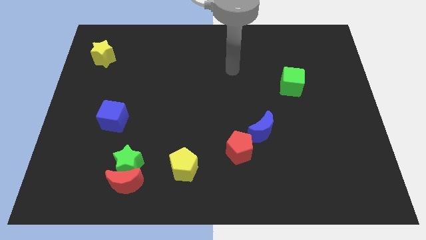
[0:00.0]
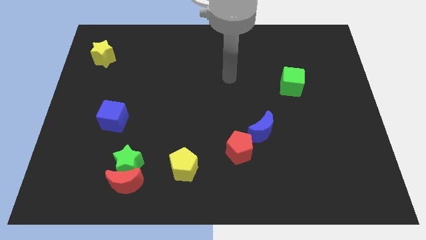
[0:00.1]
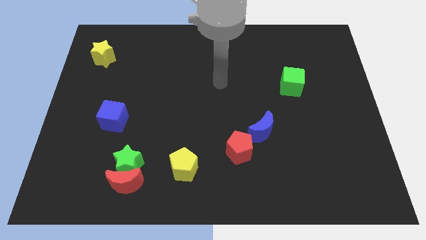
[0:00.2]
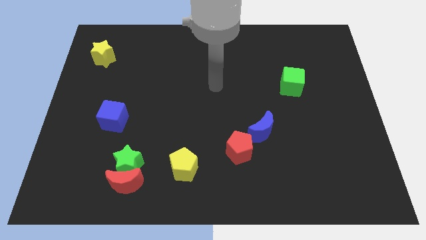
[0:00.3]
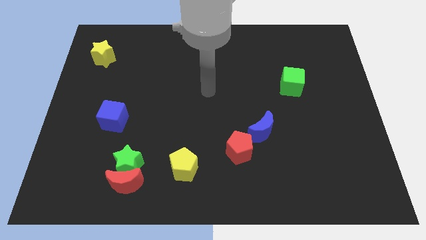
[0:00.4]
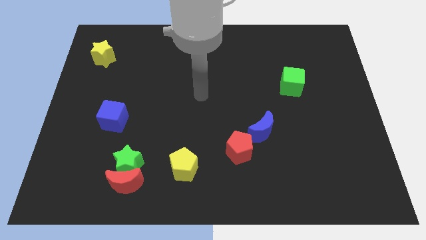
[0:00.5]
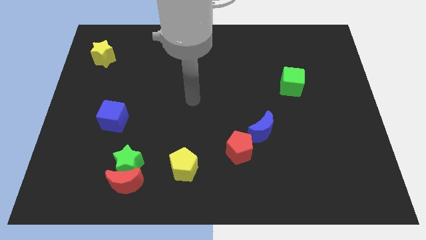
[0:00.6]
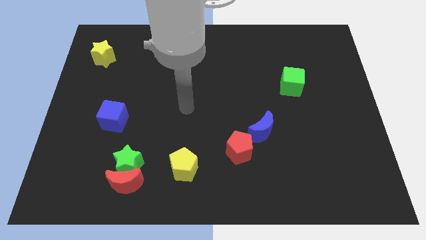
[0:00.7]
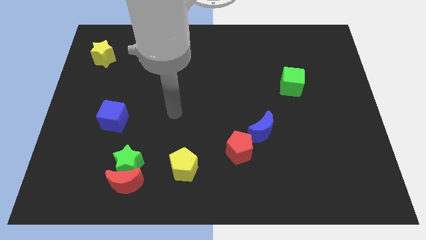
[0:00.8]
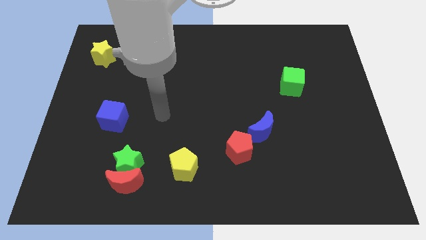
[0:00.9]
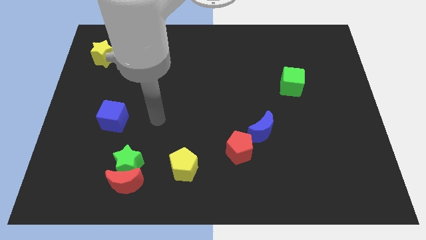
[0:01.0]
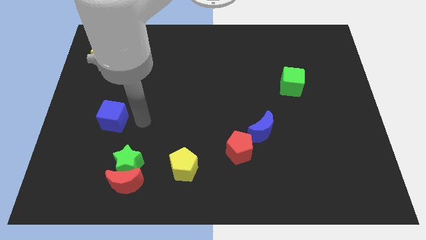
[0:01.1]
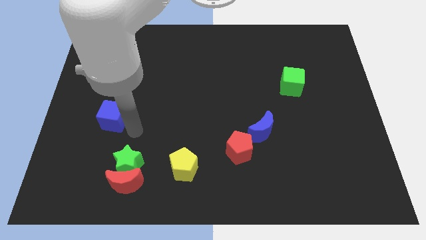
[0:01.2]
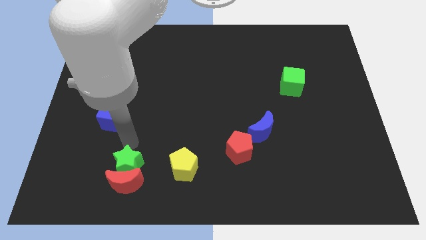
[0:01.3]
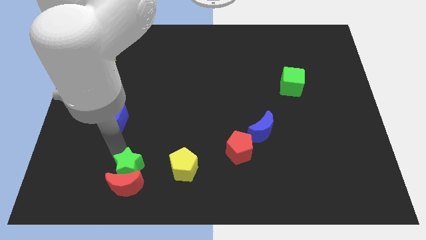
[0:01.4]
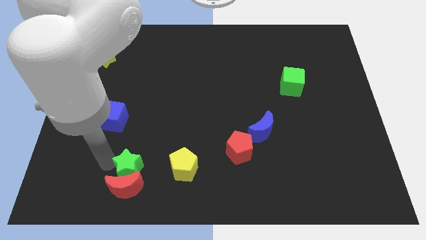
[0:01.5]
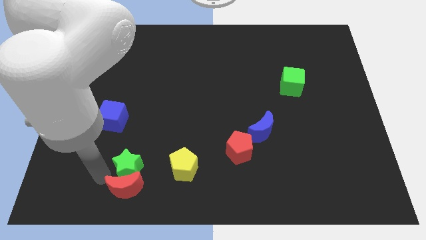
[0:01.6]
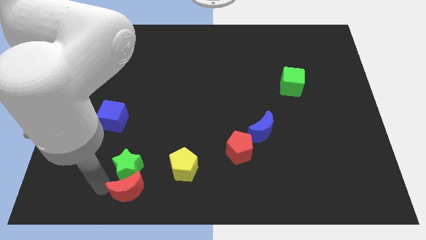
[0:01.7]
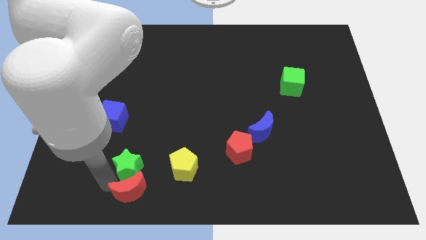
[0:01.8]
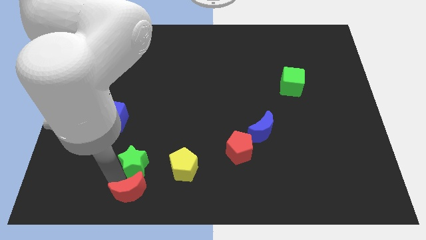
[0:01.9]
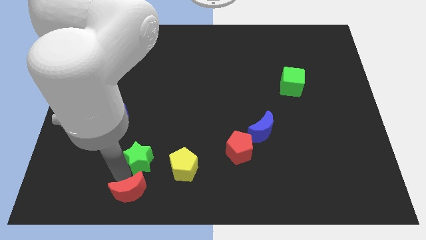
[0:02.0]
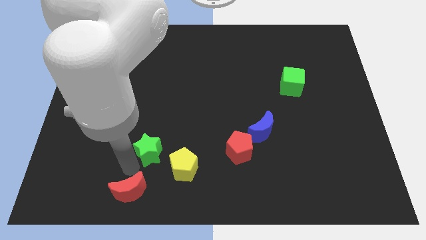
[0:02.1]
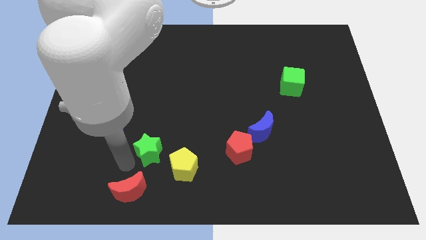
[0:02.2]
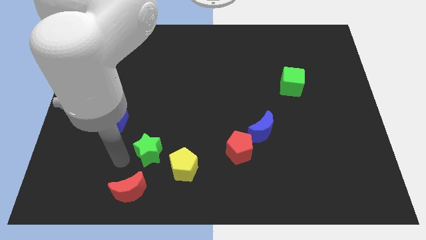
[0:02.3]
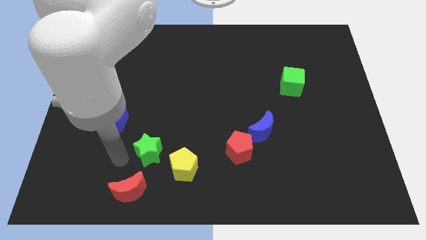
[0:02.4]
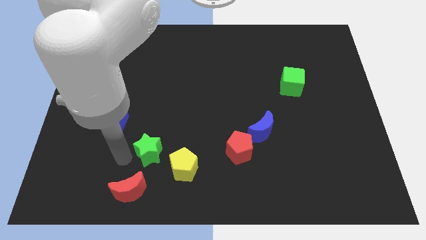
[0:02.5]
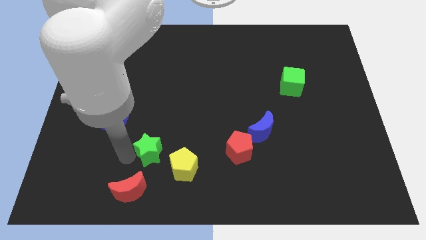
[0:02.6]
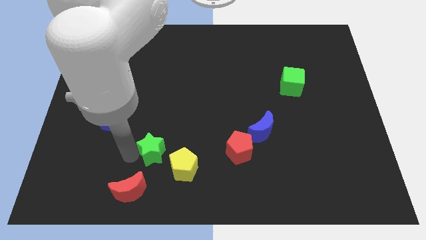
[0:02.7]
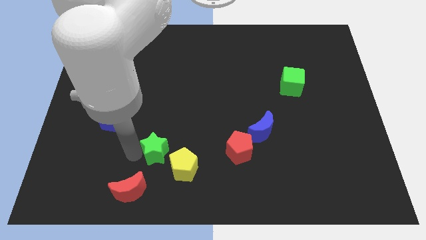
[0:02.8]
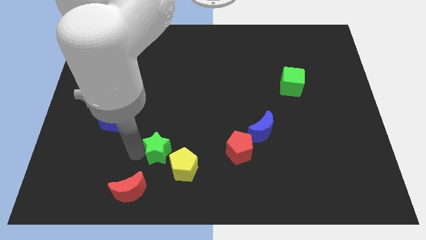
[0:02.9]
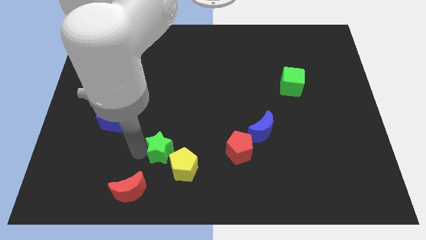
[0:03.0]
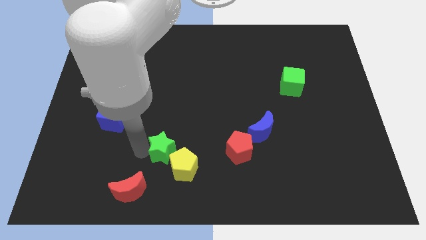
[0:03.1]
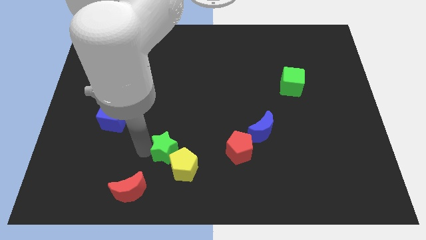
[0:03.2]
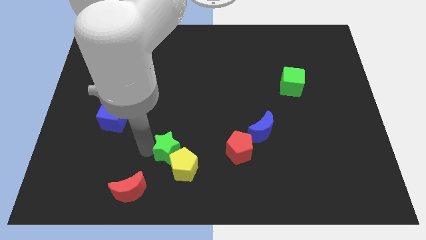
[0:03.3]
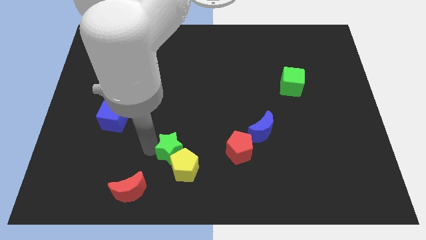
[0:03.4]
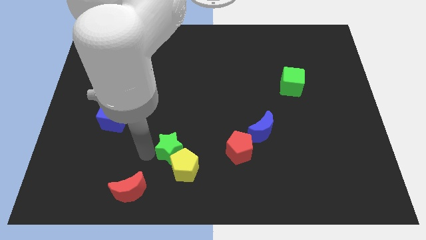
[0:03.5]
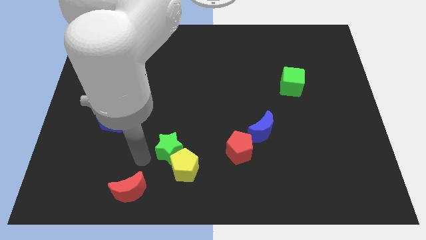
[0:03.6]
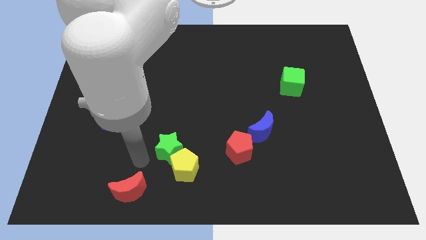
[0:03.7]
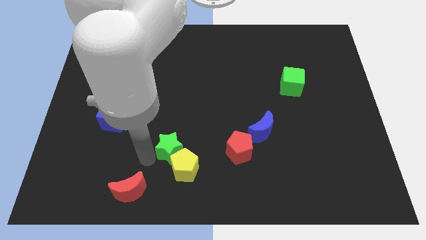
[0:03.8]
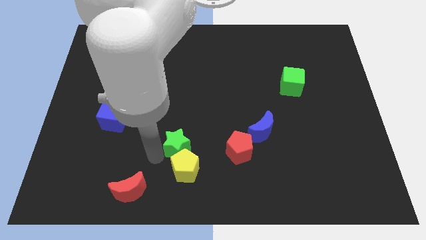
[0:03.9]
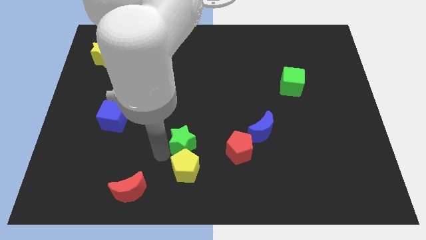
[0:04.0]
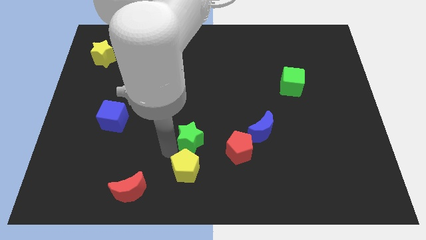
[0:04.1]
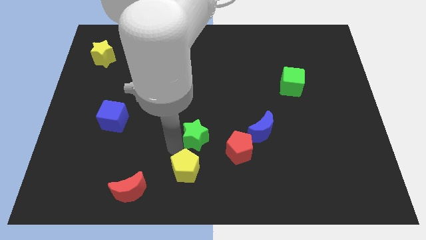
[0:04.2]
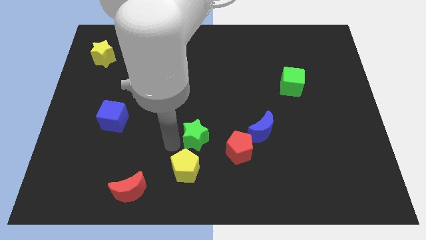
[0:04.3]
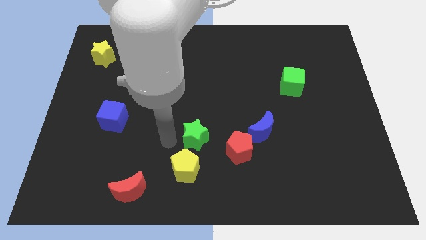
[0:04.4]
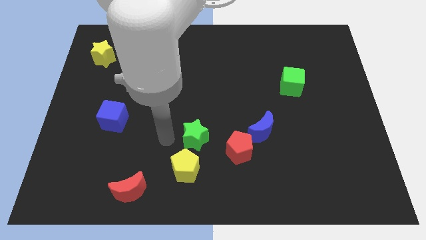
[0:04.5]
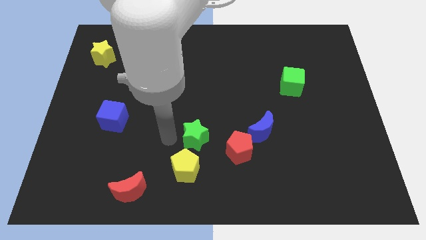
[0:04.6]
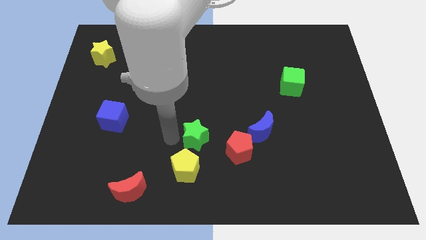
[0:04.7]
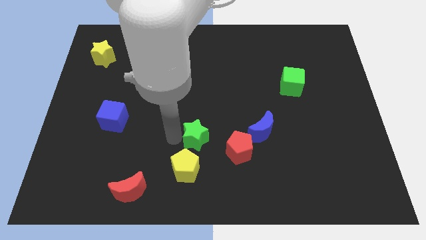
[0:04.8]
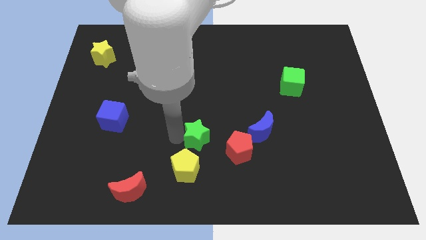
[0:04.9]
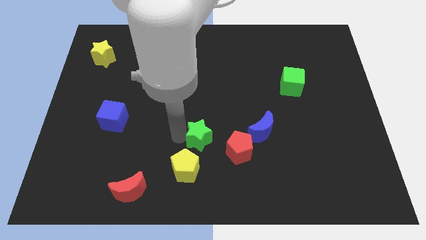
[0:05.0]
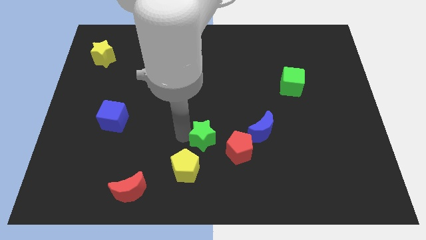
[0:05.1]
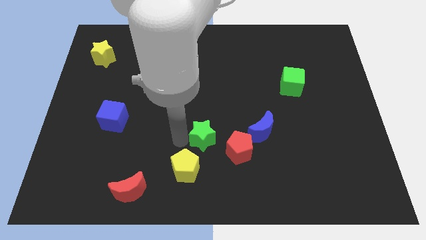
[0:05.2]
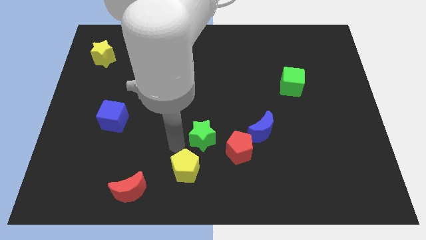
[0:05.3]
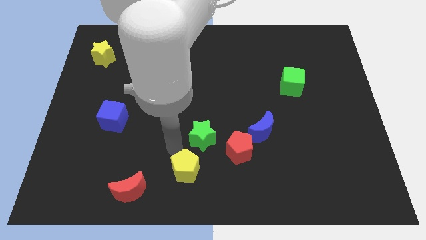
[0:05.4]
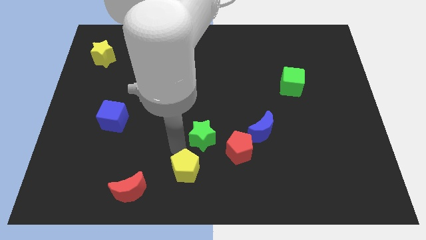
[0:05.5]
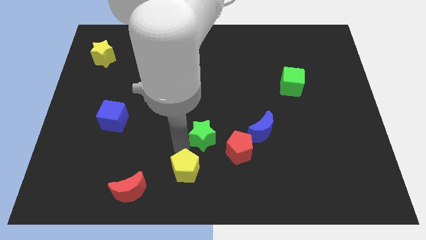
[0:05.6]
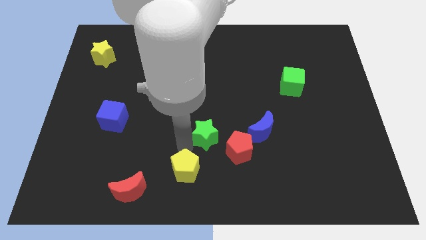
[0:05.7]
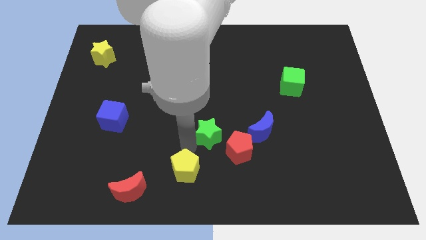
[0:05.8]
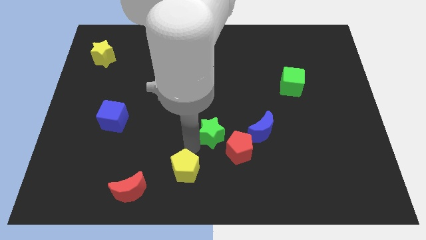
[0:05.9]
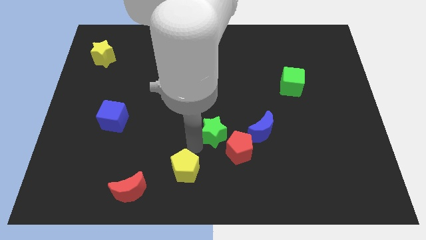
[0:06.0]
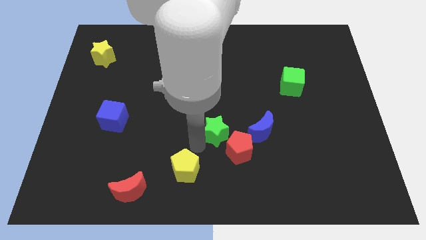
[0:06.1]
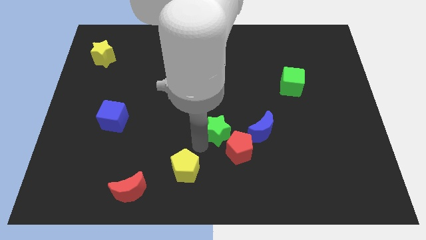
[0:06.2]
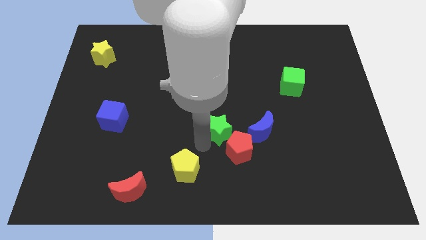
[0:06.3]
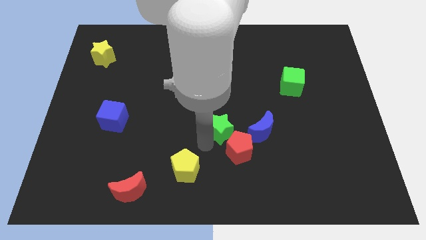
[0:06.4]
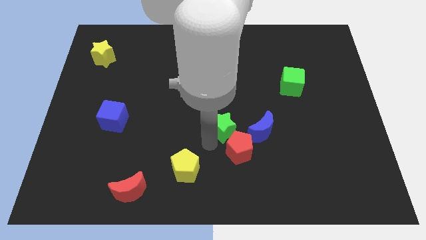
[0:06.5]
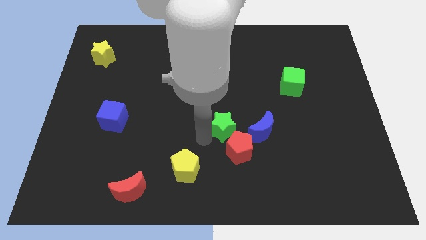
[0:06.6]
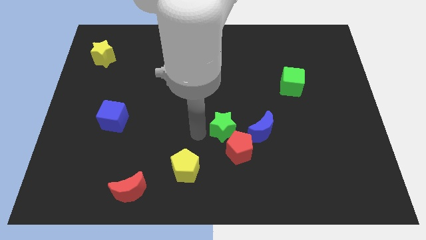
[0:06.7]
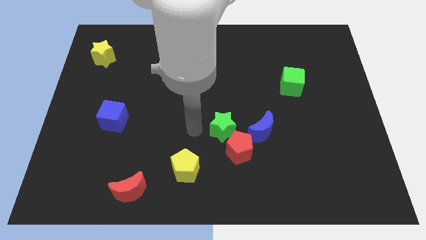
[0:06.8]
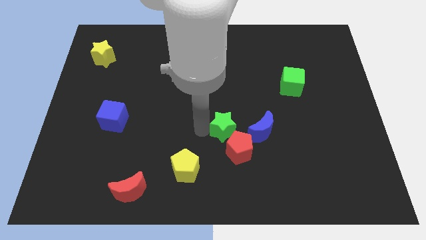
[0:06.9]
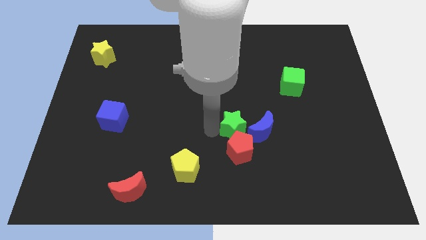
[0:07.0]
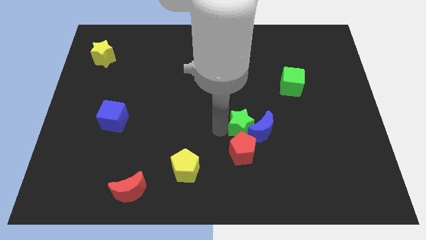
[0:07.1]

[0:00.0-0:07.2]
push the green star next to the blue moon

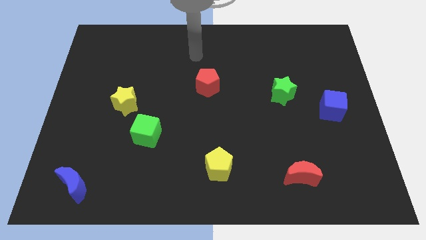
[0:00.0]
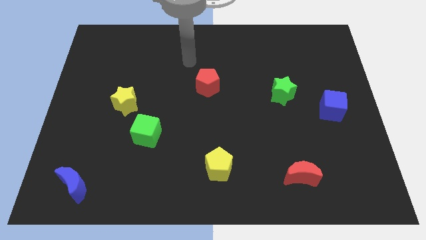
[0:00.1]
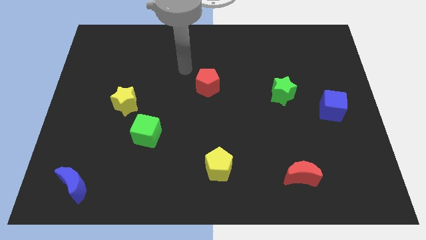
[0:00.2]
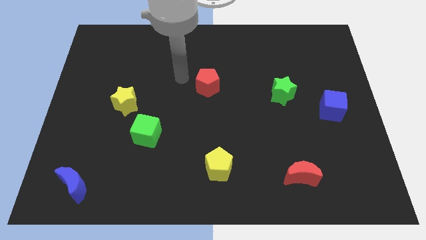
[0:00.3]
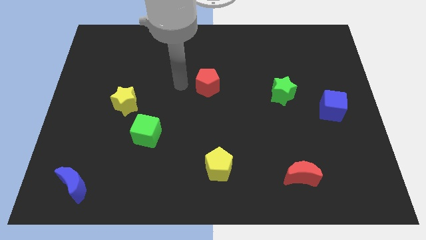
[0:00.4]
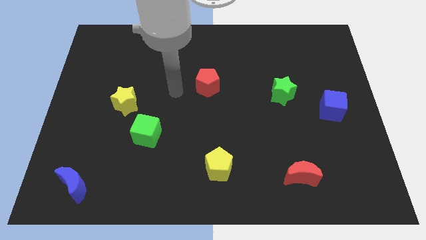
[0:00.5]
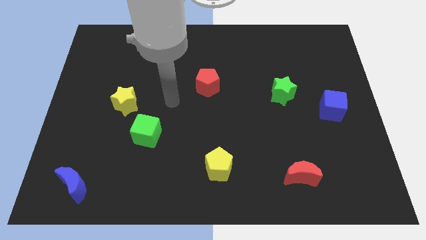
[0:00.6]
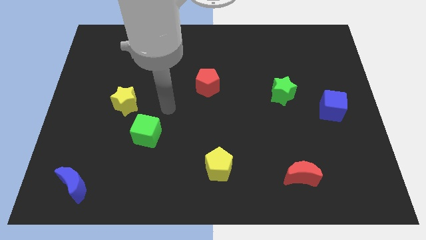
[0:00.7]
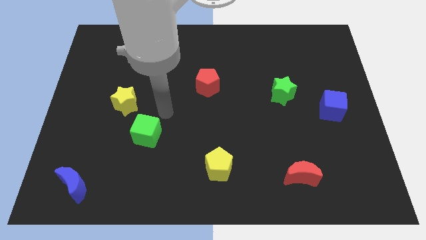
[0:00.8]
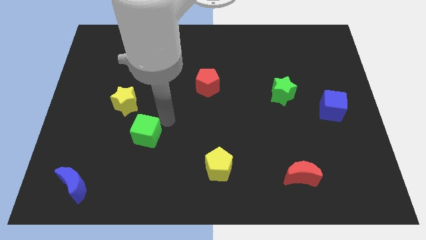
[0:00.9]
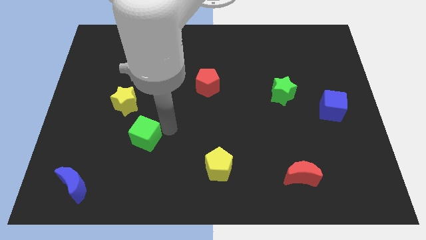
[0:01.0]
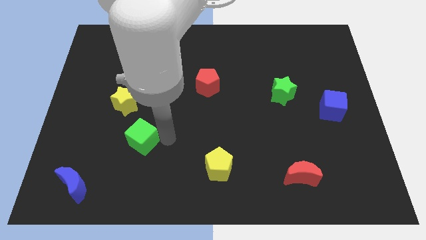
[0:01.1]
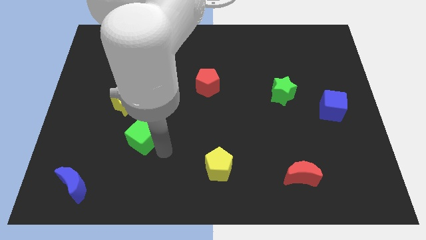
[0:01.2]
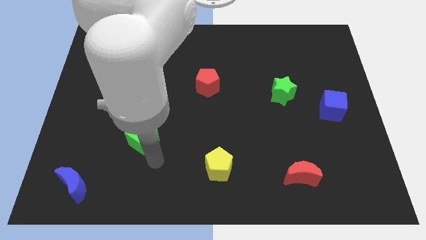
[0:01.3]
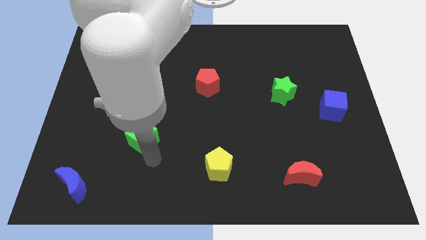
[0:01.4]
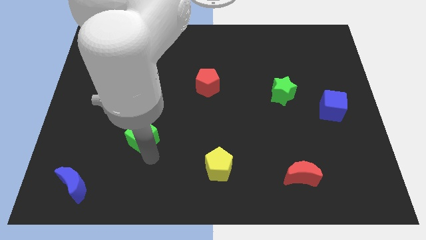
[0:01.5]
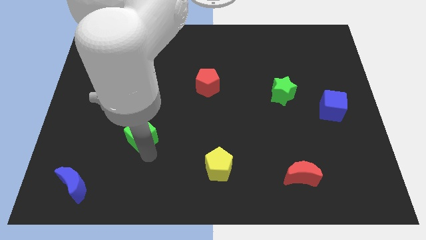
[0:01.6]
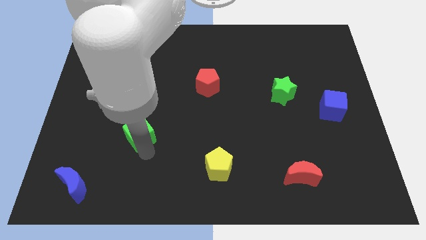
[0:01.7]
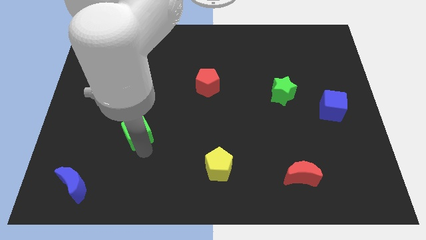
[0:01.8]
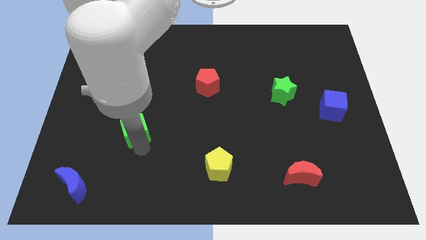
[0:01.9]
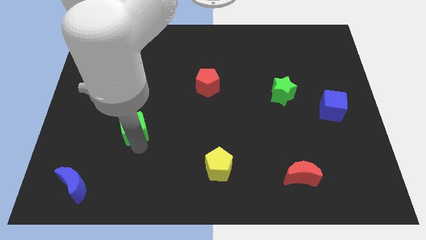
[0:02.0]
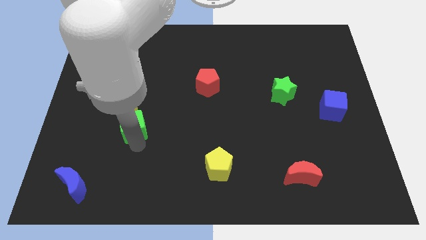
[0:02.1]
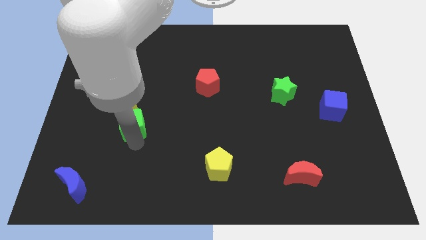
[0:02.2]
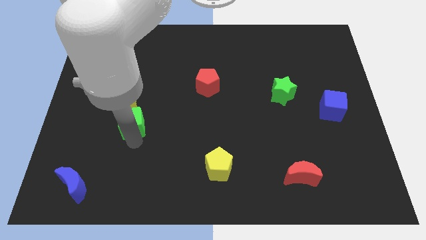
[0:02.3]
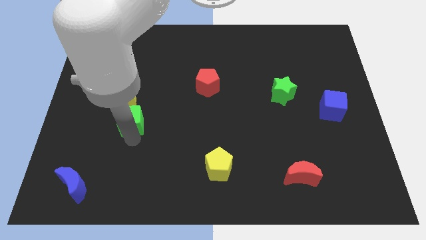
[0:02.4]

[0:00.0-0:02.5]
slide the green cube towards the yellow star
